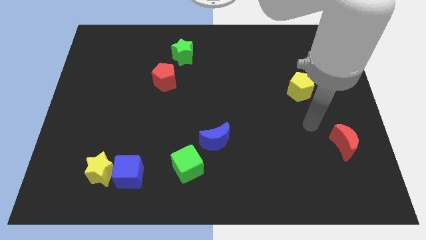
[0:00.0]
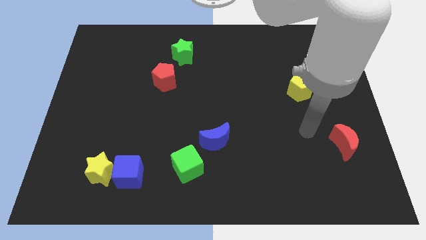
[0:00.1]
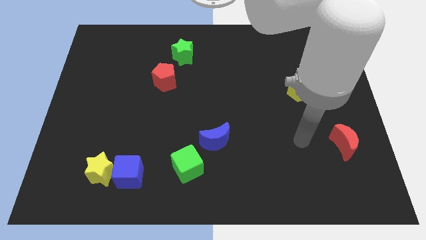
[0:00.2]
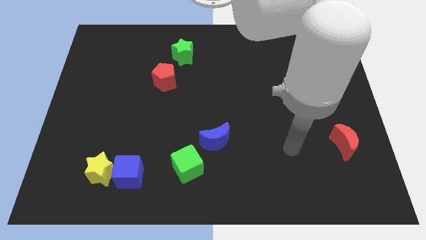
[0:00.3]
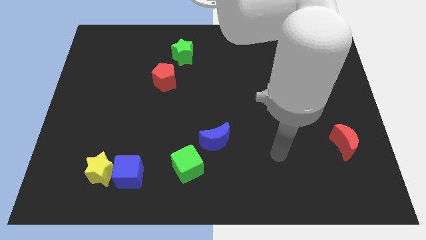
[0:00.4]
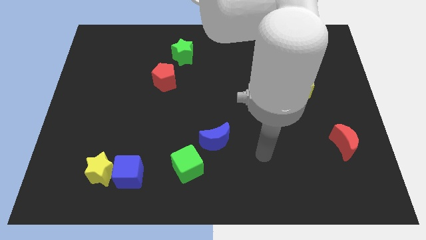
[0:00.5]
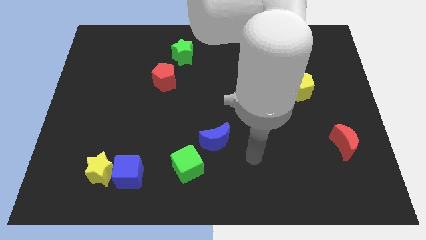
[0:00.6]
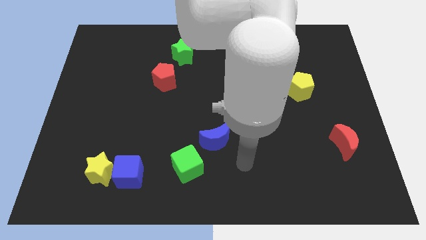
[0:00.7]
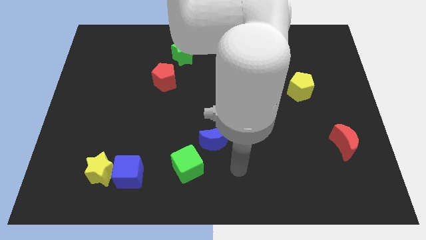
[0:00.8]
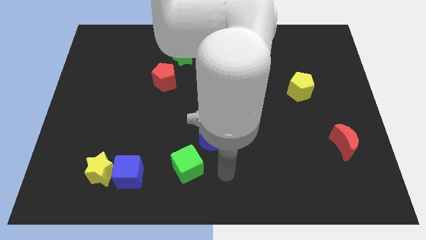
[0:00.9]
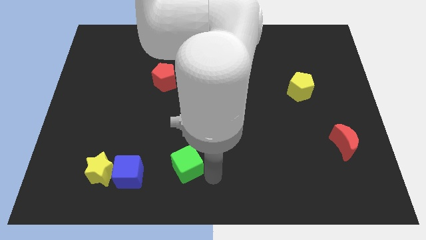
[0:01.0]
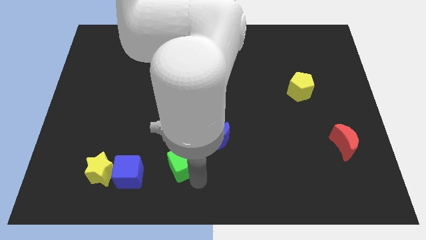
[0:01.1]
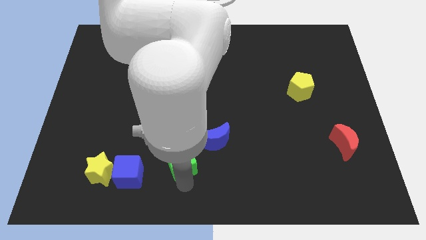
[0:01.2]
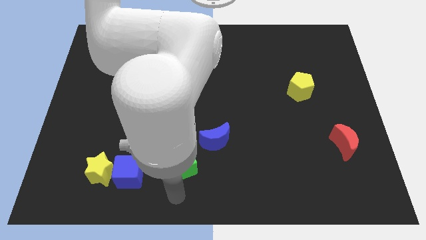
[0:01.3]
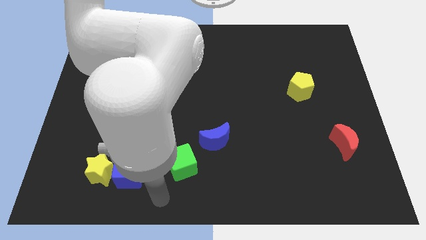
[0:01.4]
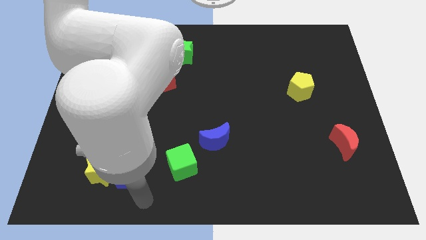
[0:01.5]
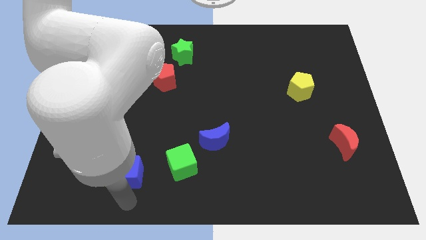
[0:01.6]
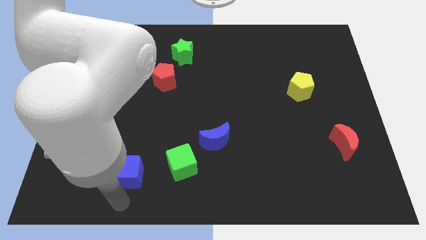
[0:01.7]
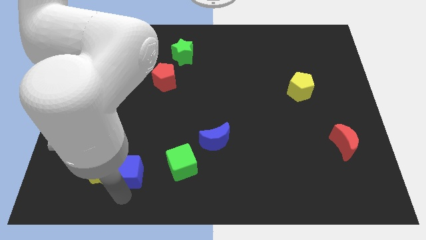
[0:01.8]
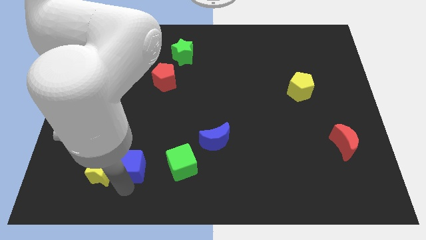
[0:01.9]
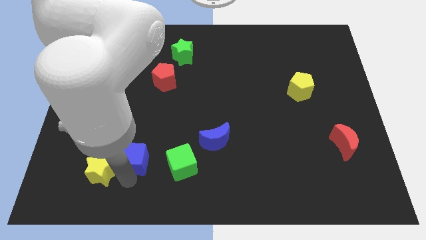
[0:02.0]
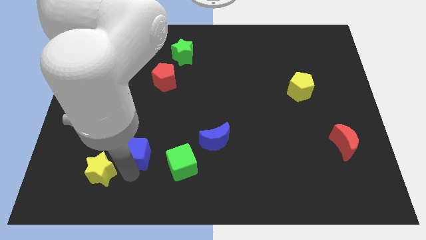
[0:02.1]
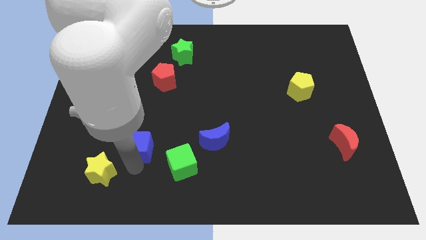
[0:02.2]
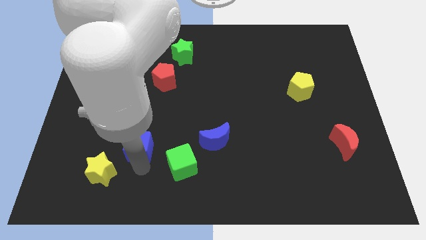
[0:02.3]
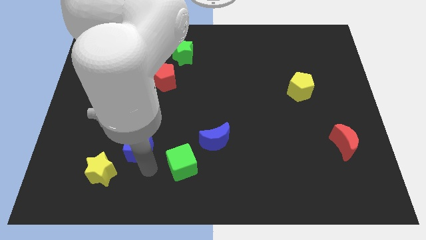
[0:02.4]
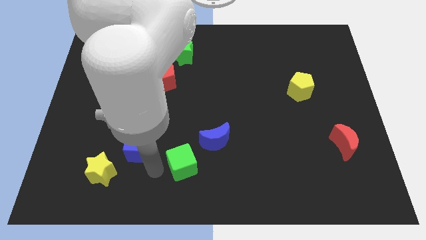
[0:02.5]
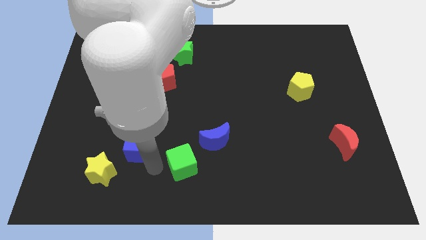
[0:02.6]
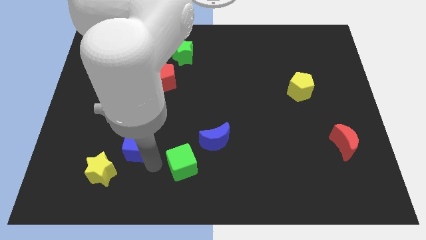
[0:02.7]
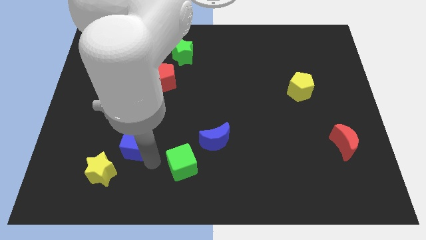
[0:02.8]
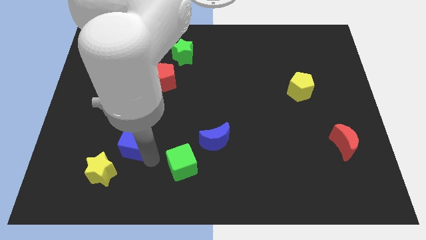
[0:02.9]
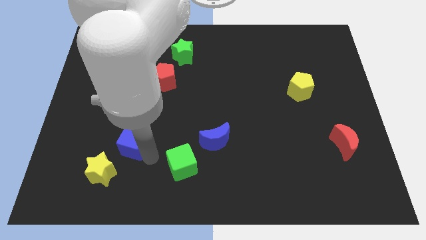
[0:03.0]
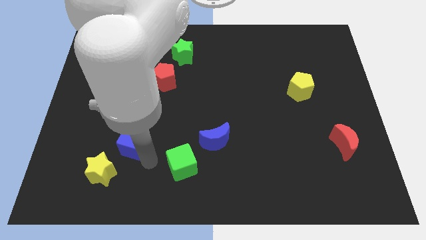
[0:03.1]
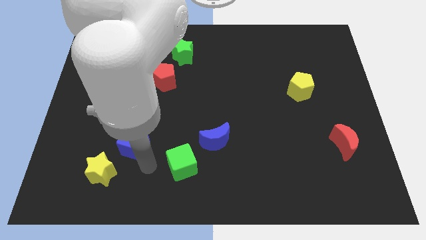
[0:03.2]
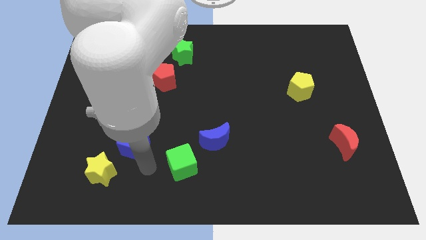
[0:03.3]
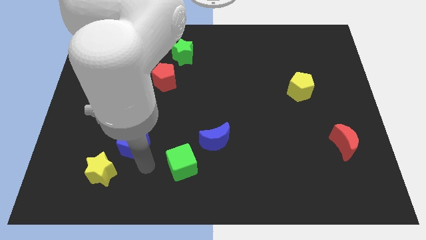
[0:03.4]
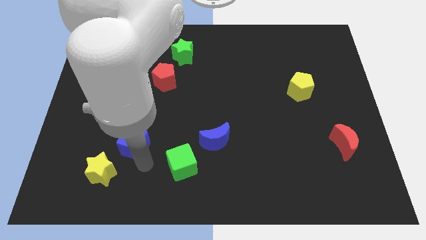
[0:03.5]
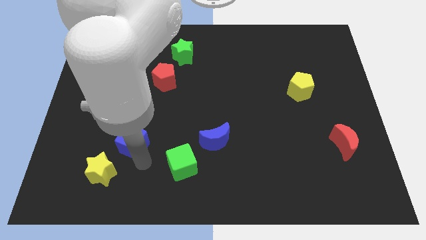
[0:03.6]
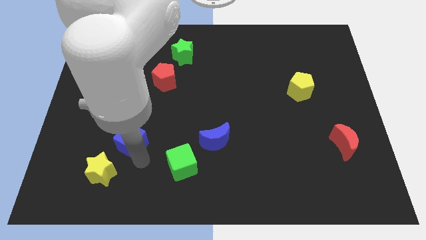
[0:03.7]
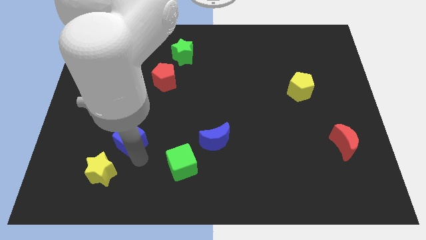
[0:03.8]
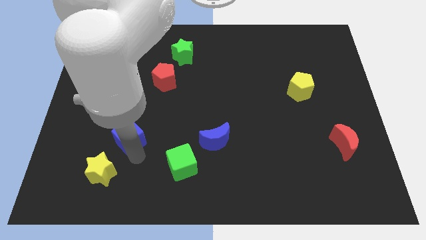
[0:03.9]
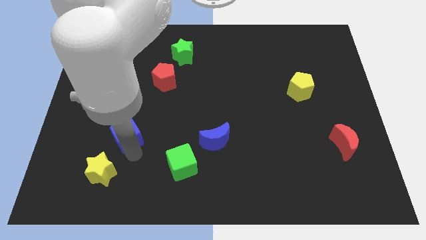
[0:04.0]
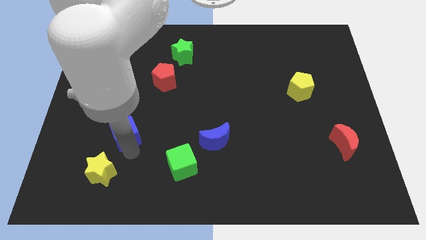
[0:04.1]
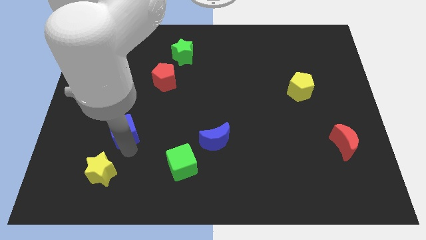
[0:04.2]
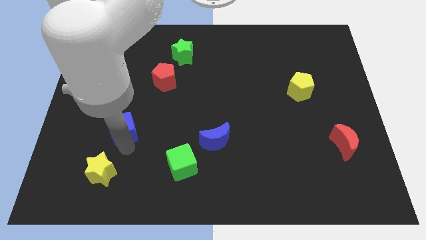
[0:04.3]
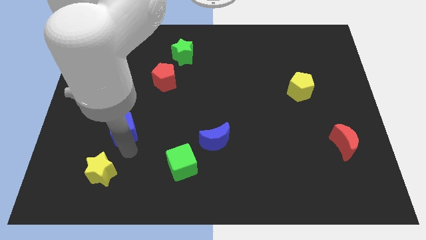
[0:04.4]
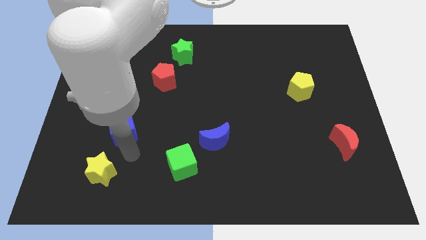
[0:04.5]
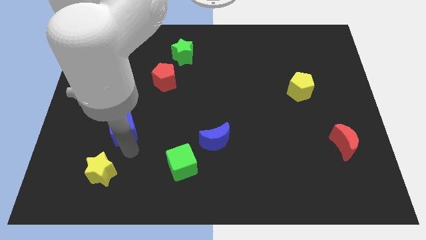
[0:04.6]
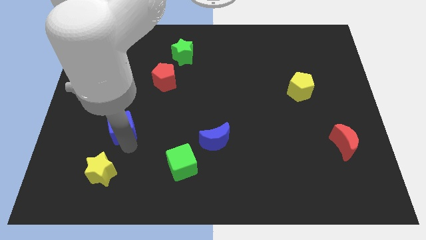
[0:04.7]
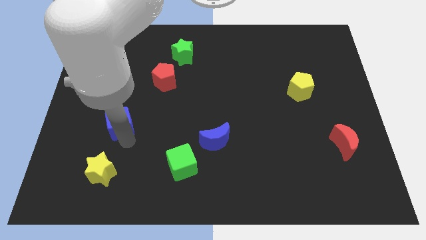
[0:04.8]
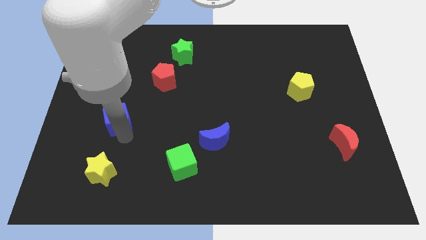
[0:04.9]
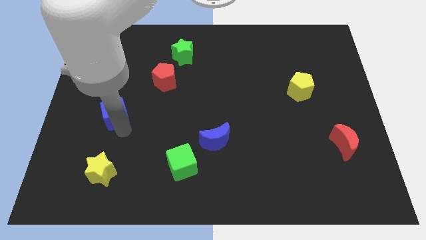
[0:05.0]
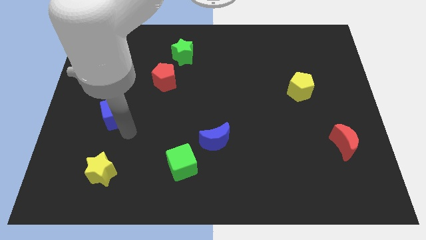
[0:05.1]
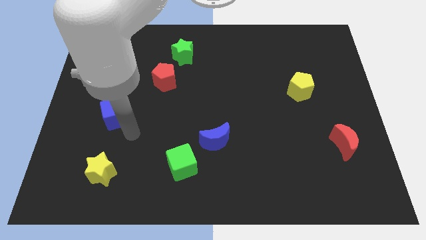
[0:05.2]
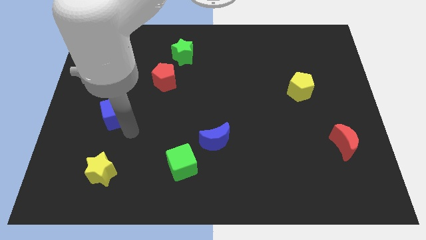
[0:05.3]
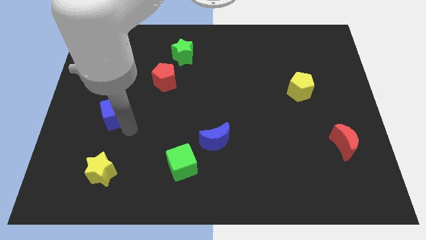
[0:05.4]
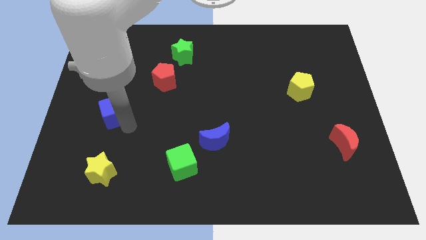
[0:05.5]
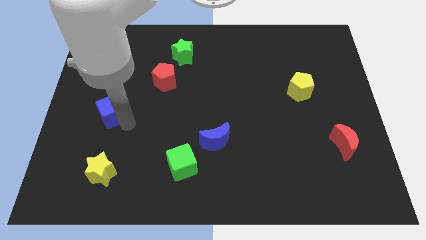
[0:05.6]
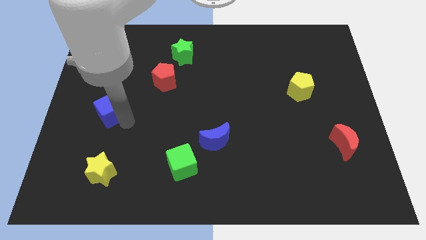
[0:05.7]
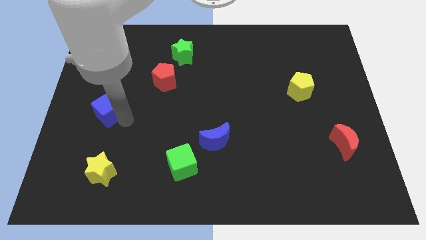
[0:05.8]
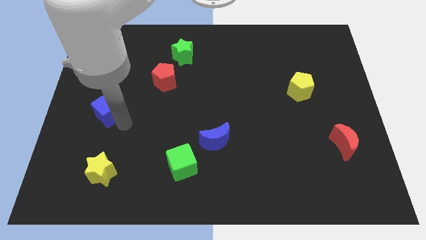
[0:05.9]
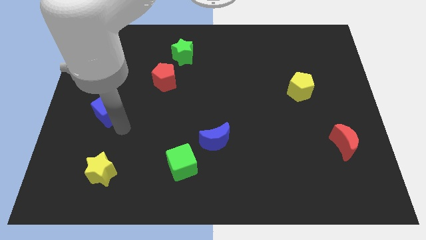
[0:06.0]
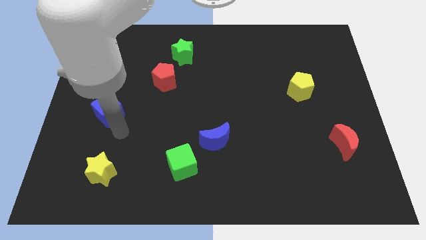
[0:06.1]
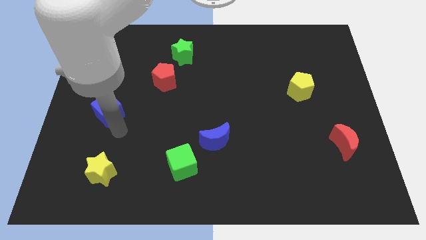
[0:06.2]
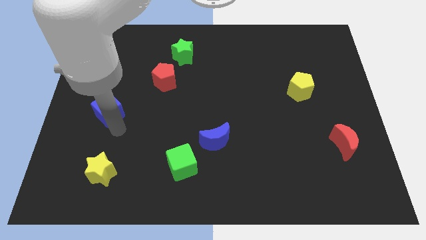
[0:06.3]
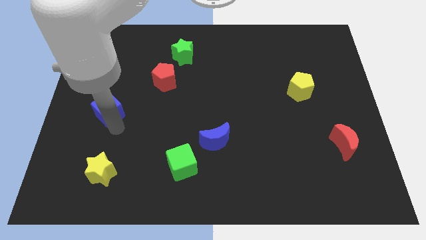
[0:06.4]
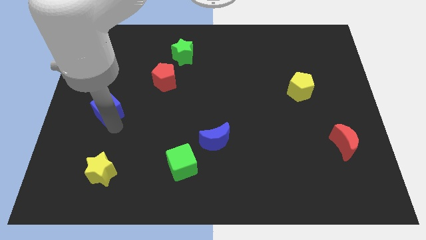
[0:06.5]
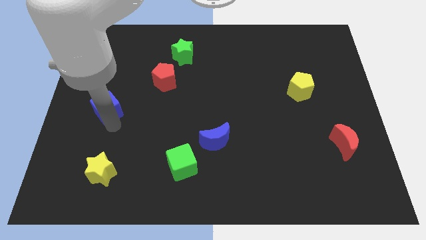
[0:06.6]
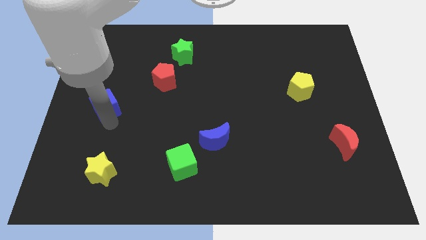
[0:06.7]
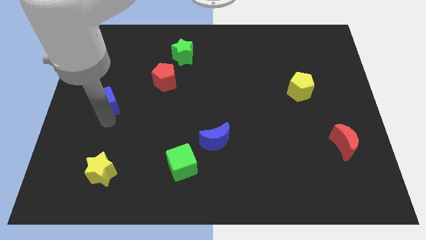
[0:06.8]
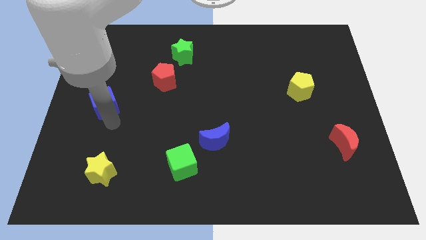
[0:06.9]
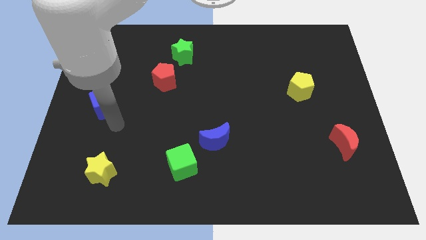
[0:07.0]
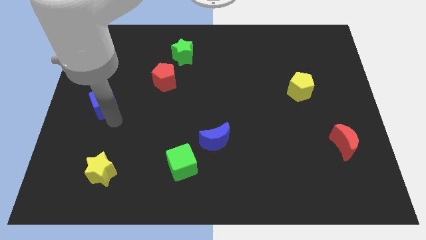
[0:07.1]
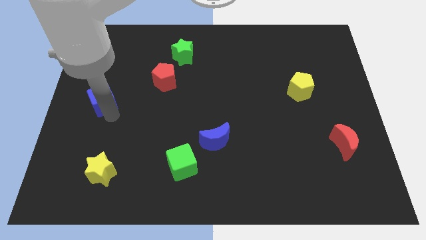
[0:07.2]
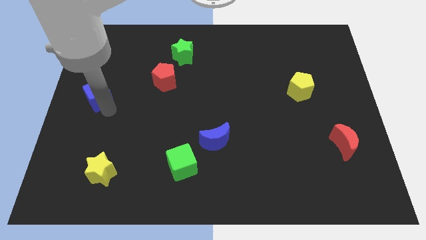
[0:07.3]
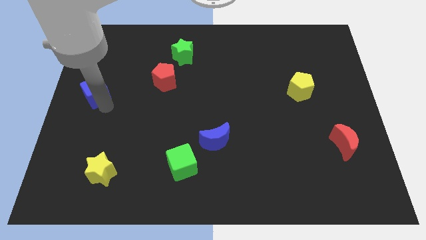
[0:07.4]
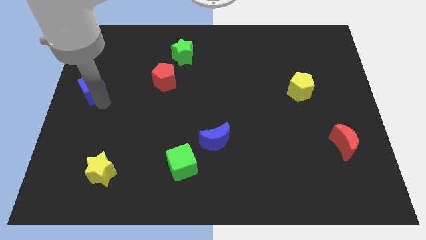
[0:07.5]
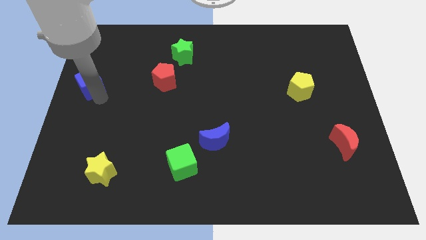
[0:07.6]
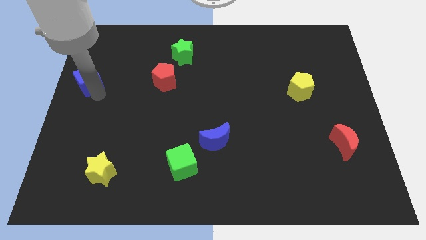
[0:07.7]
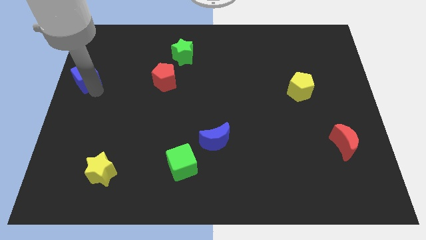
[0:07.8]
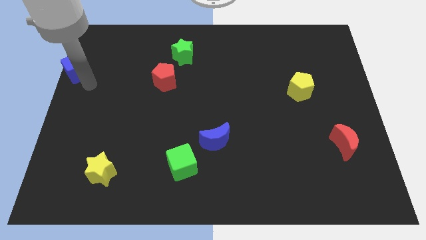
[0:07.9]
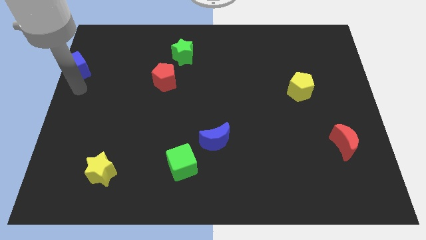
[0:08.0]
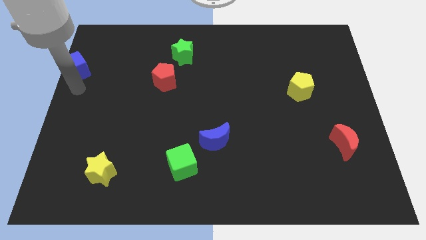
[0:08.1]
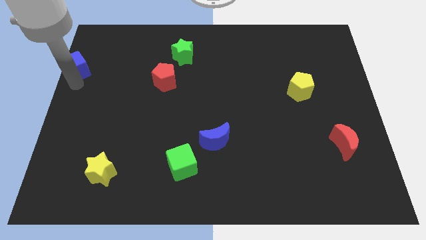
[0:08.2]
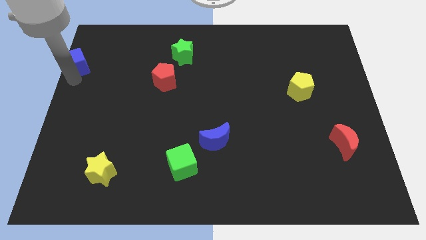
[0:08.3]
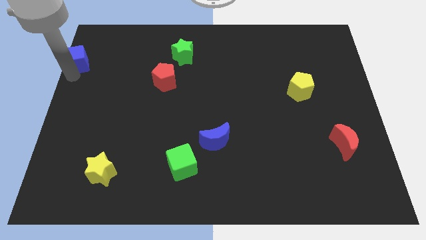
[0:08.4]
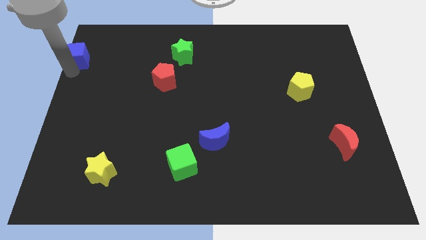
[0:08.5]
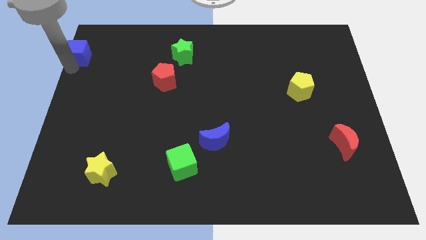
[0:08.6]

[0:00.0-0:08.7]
move the blue cube to the top left of the board
